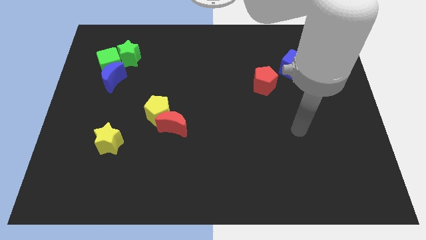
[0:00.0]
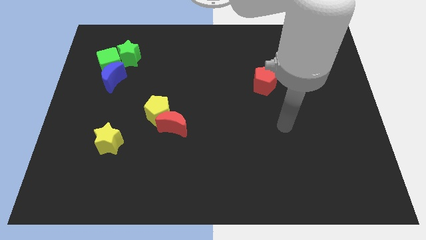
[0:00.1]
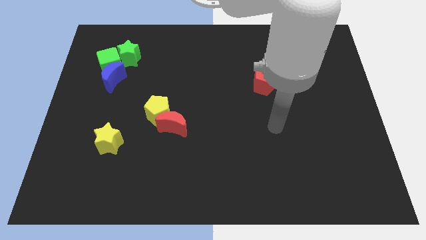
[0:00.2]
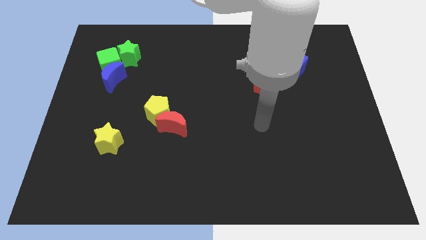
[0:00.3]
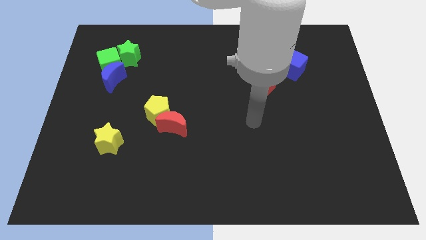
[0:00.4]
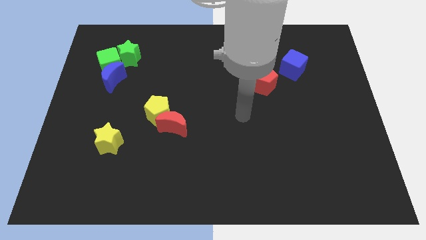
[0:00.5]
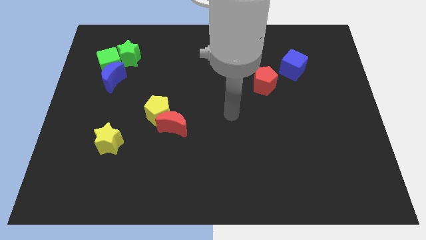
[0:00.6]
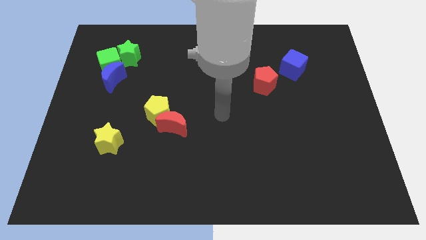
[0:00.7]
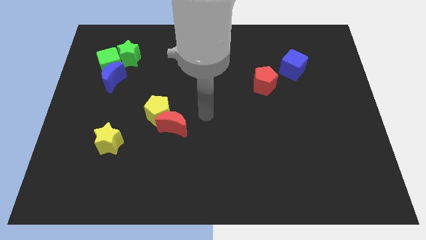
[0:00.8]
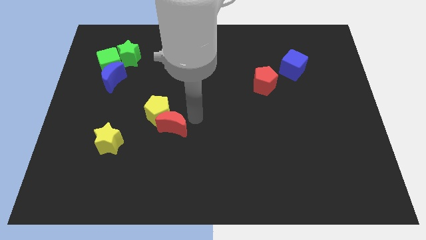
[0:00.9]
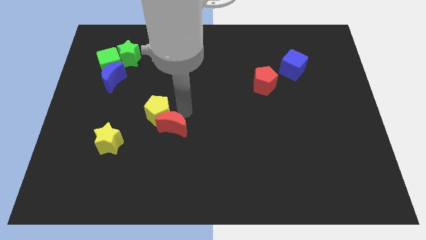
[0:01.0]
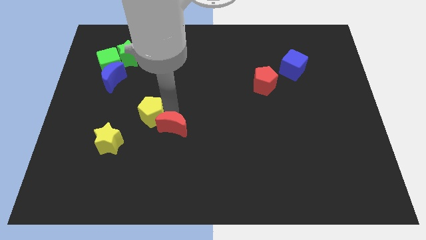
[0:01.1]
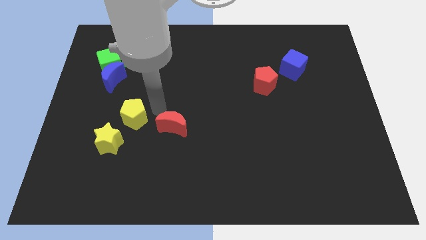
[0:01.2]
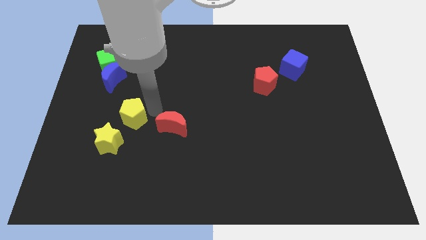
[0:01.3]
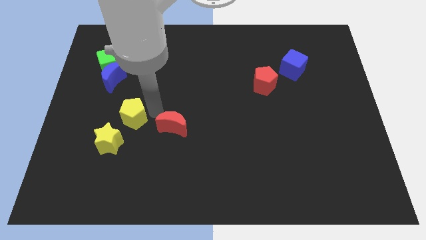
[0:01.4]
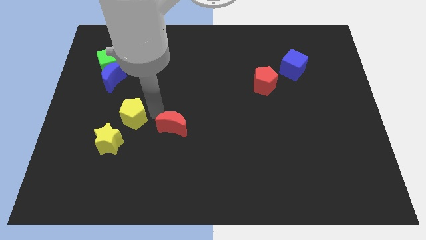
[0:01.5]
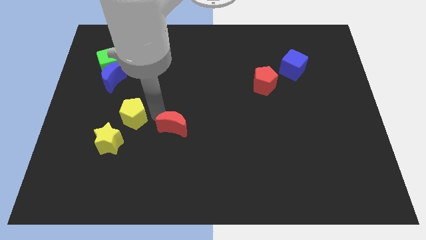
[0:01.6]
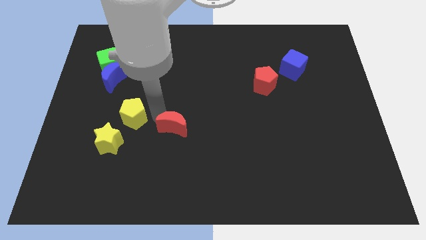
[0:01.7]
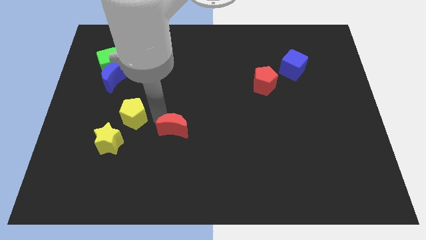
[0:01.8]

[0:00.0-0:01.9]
pull the red moon apart from the yellow pentagon

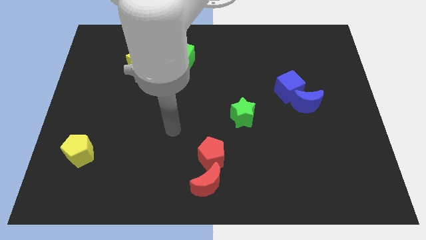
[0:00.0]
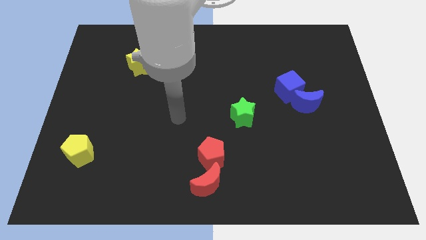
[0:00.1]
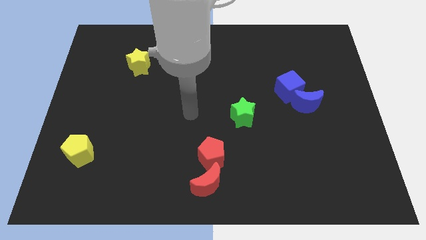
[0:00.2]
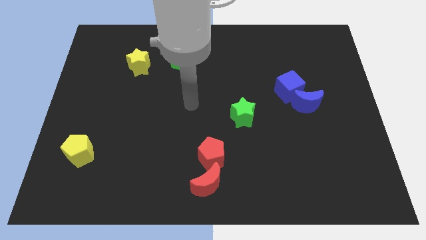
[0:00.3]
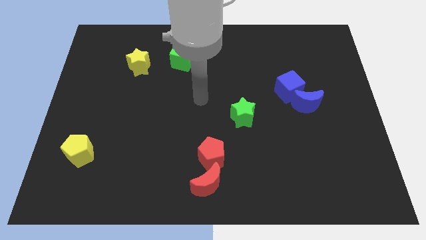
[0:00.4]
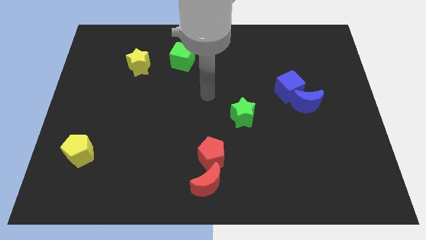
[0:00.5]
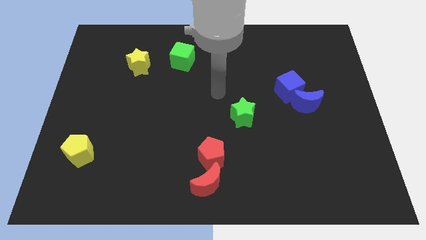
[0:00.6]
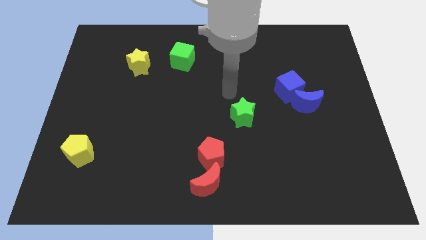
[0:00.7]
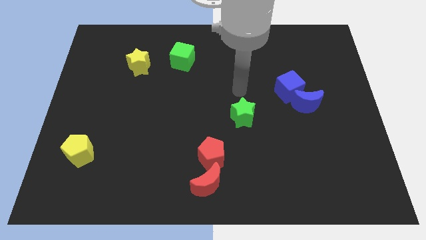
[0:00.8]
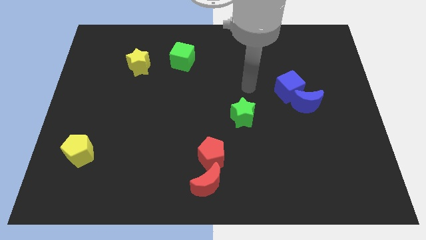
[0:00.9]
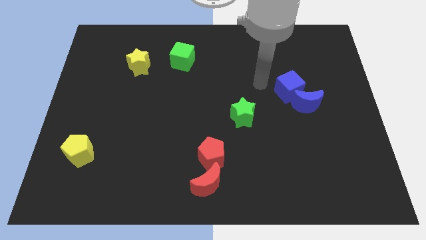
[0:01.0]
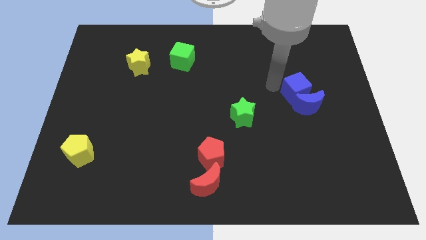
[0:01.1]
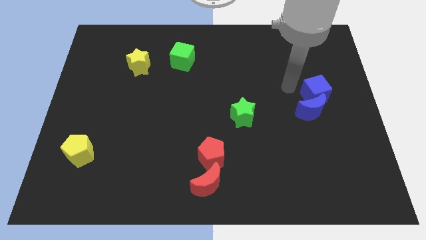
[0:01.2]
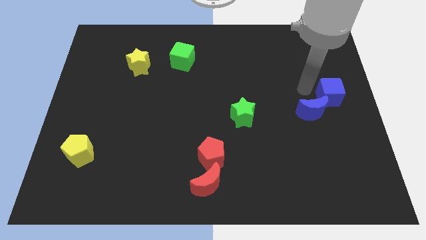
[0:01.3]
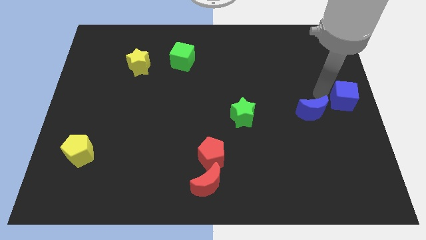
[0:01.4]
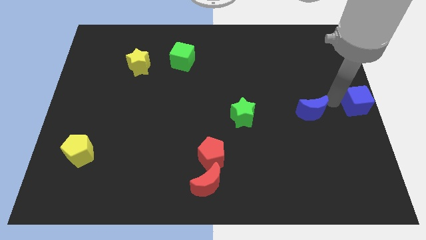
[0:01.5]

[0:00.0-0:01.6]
move the blue moon away from the blue cube

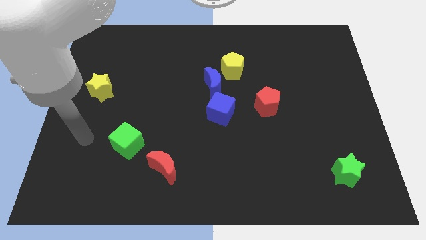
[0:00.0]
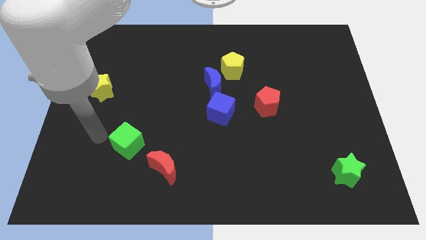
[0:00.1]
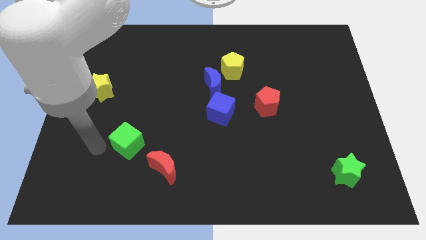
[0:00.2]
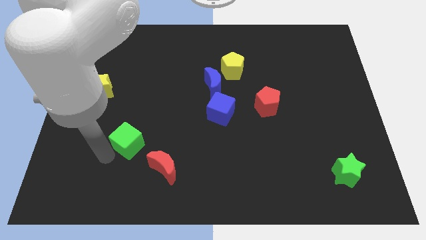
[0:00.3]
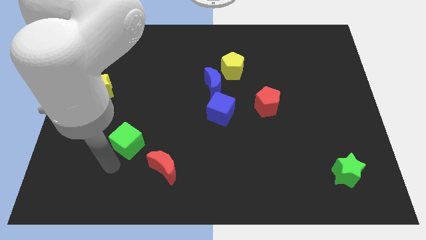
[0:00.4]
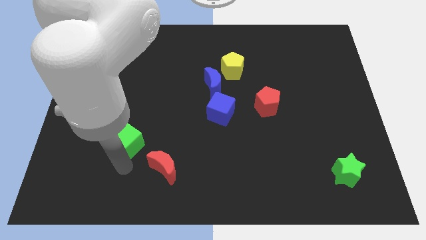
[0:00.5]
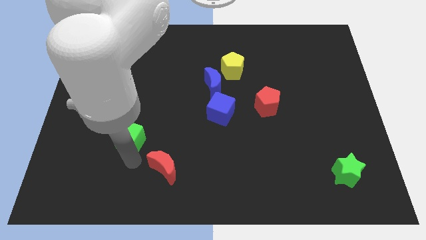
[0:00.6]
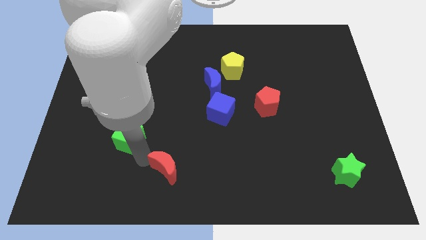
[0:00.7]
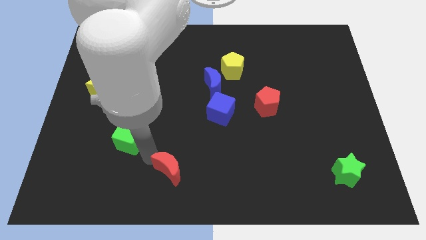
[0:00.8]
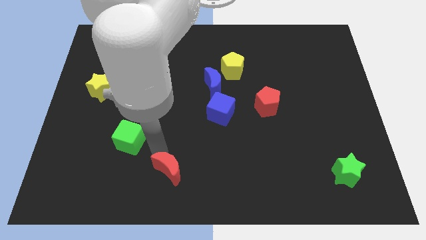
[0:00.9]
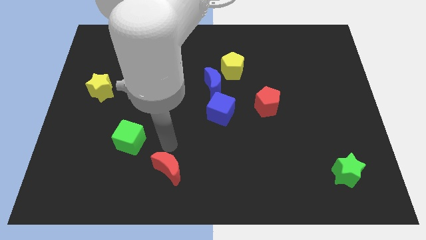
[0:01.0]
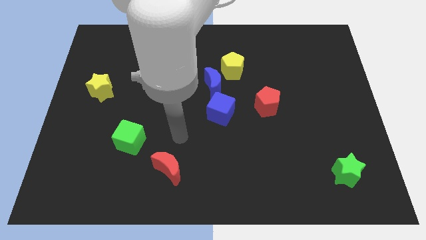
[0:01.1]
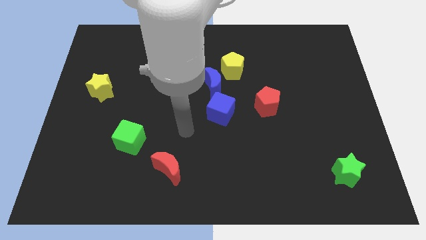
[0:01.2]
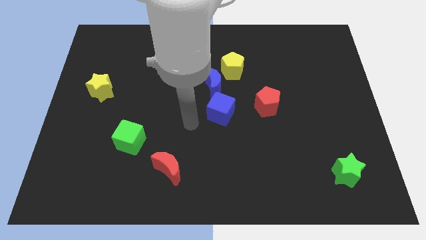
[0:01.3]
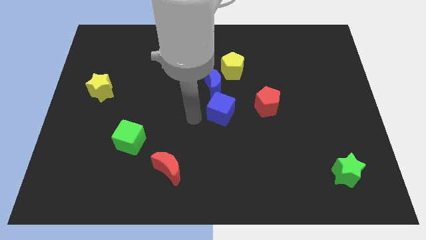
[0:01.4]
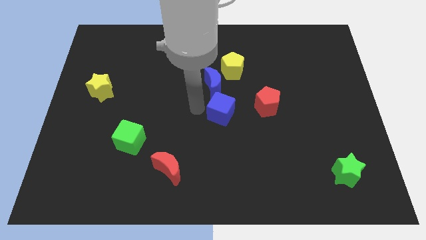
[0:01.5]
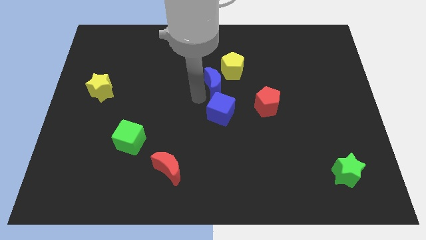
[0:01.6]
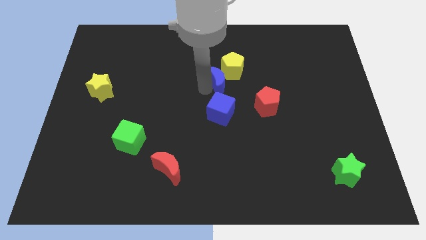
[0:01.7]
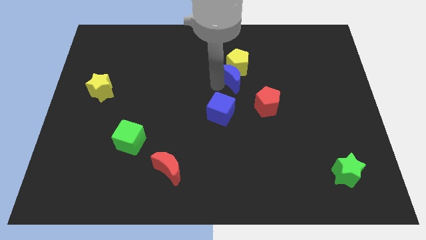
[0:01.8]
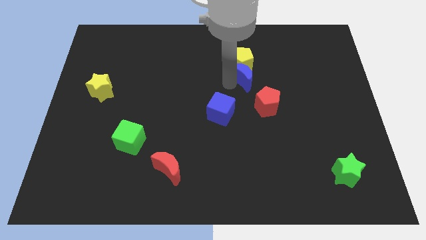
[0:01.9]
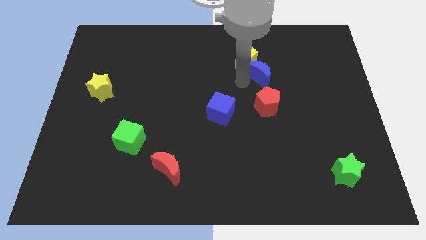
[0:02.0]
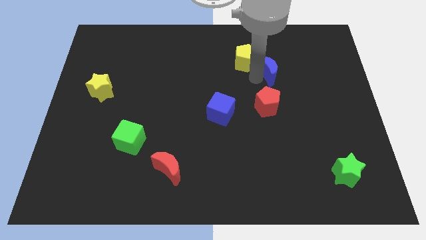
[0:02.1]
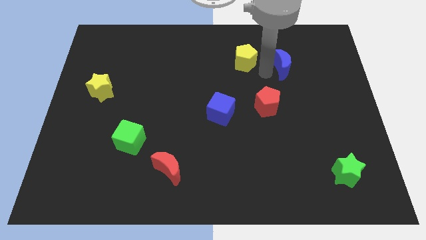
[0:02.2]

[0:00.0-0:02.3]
separate the yellow pentagon from the blue moon

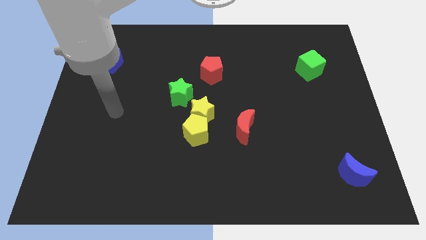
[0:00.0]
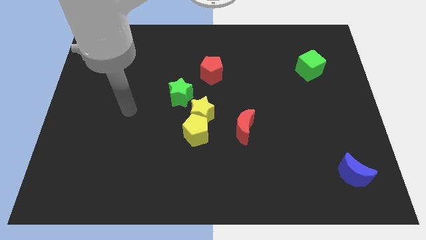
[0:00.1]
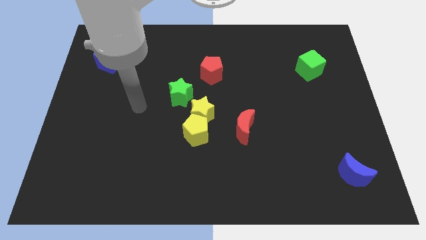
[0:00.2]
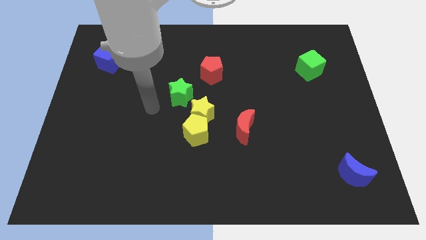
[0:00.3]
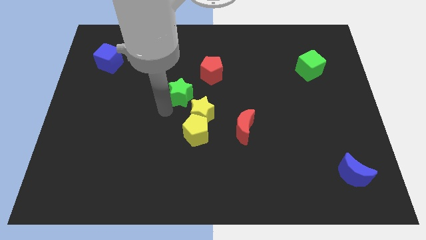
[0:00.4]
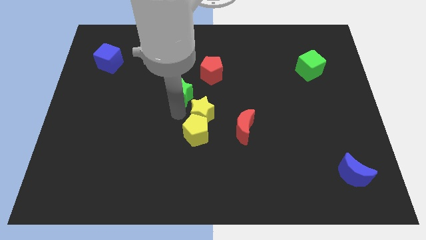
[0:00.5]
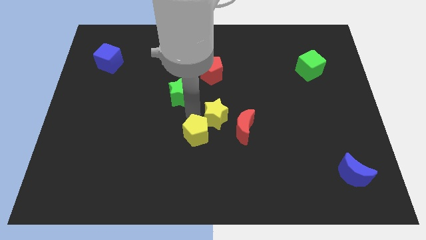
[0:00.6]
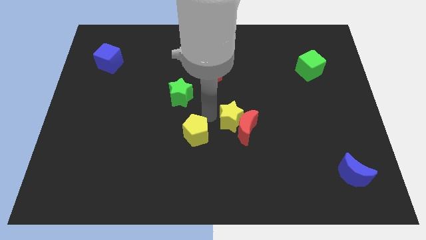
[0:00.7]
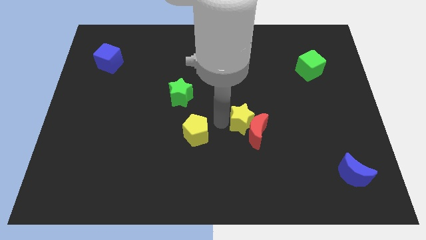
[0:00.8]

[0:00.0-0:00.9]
separate the yellow pentagon from the yellow star

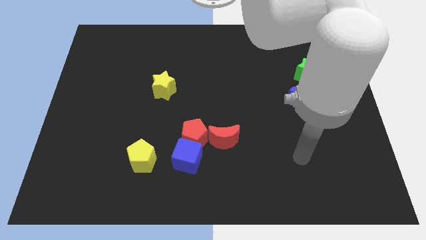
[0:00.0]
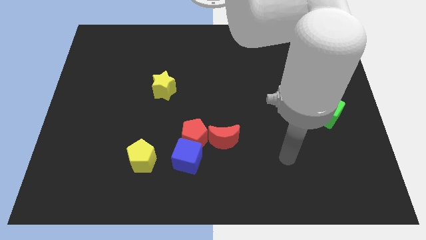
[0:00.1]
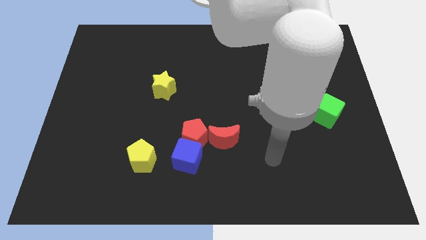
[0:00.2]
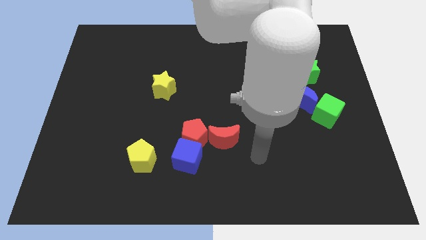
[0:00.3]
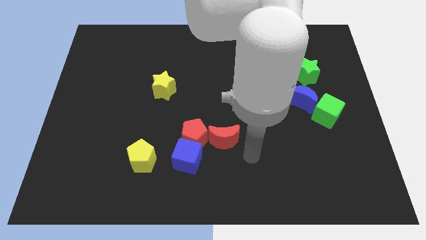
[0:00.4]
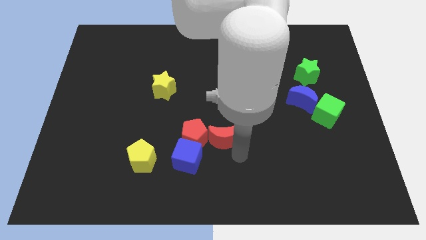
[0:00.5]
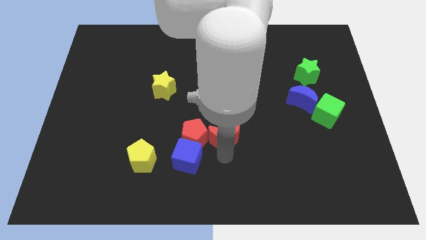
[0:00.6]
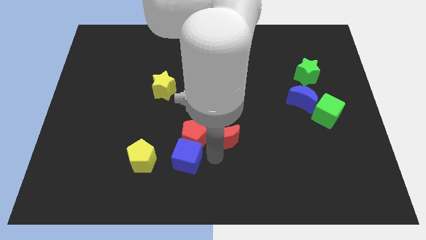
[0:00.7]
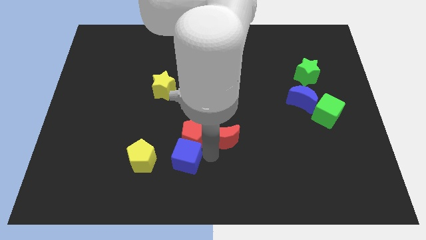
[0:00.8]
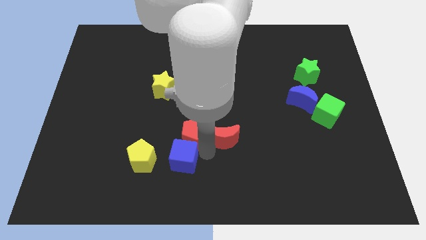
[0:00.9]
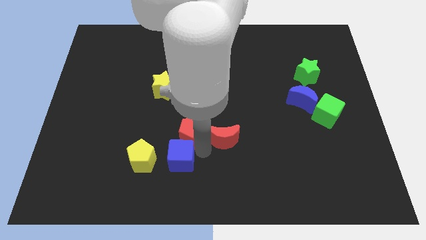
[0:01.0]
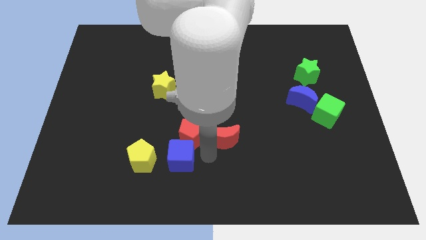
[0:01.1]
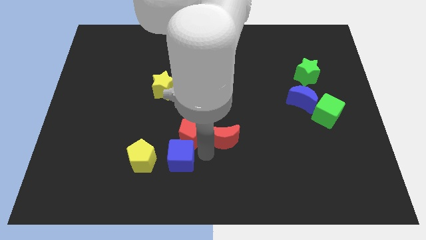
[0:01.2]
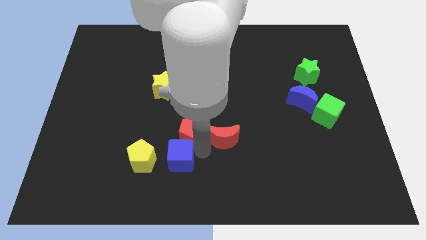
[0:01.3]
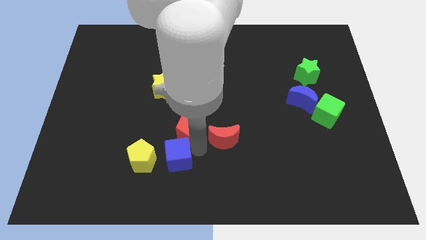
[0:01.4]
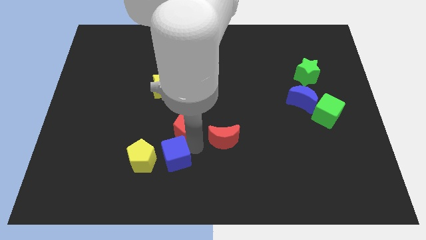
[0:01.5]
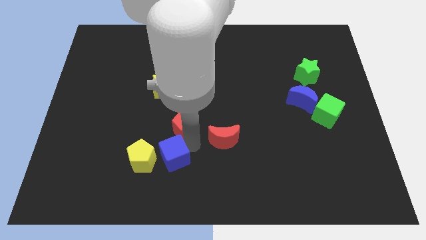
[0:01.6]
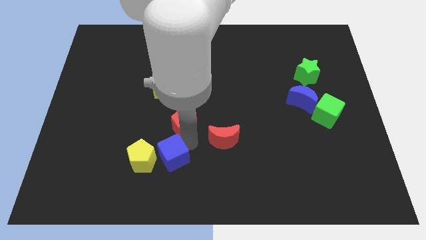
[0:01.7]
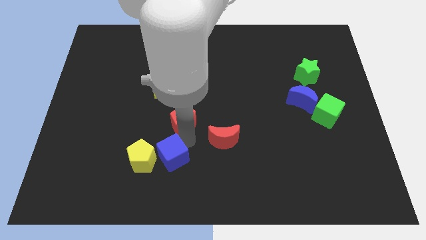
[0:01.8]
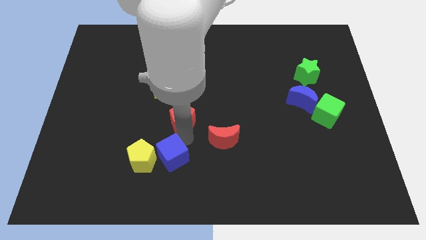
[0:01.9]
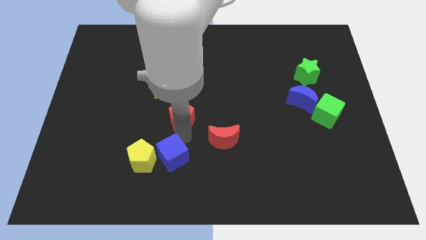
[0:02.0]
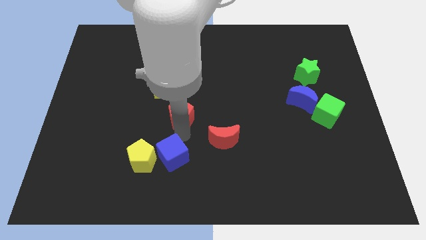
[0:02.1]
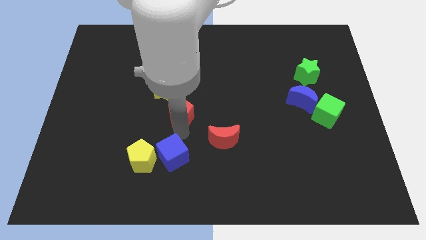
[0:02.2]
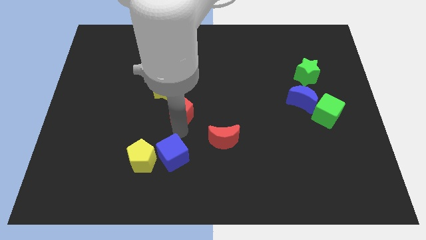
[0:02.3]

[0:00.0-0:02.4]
pull the red pentagon apart from the blue cube and red moon
